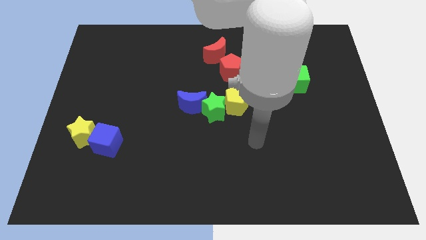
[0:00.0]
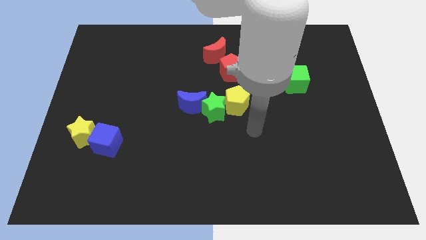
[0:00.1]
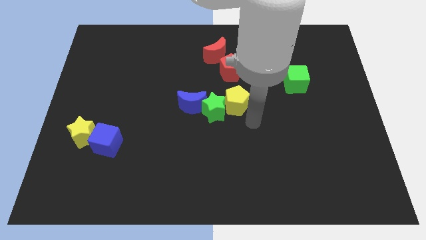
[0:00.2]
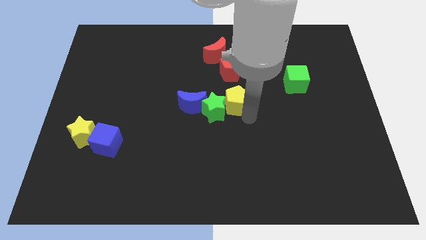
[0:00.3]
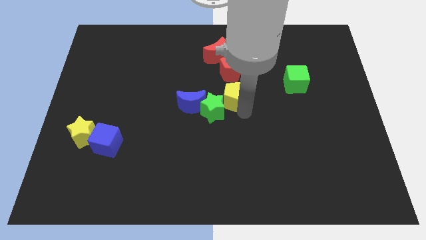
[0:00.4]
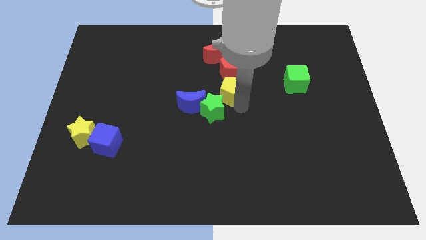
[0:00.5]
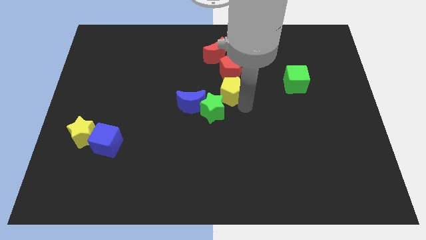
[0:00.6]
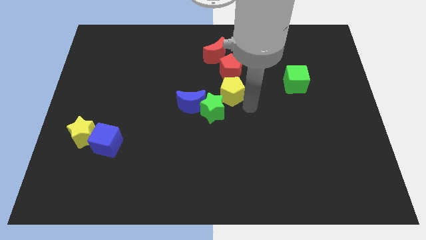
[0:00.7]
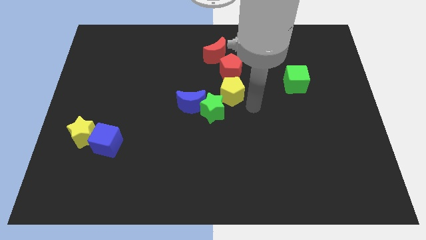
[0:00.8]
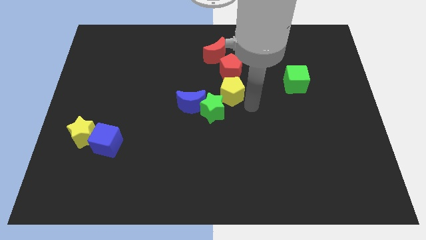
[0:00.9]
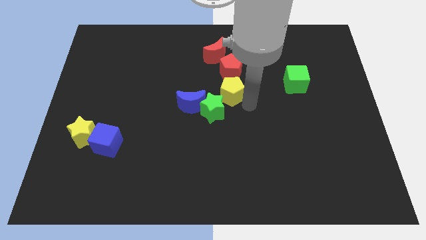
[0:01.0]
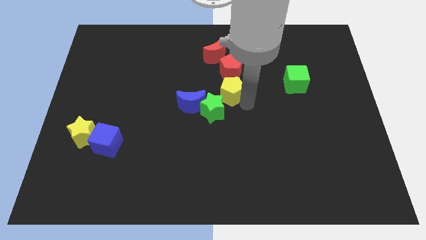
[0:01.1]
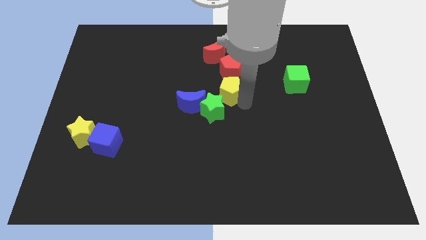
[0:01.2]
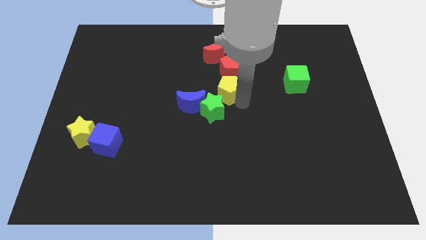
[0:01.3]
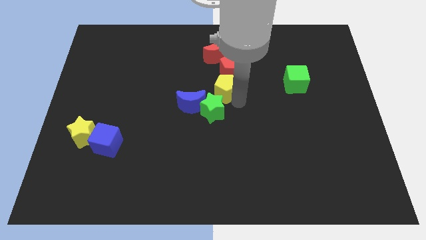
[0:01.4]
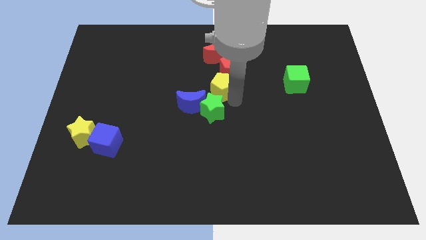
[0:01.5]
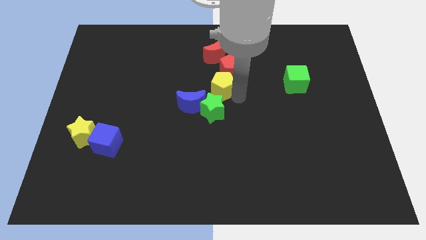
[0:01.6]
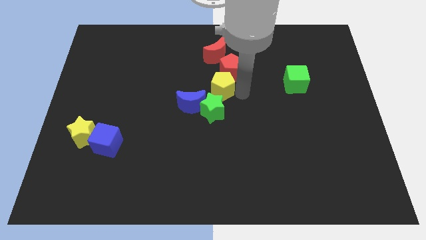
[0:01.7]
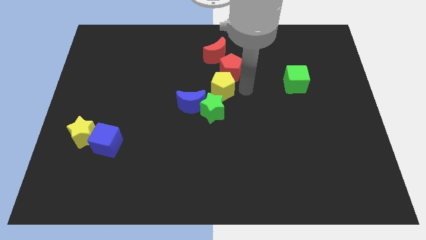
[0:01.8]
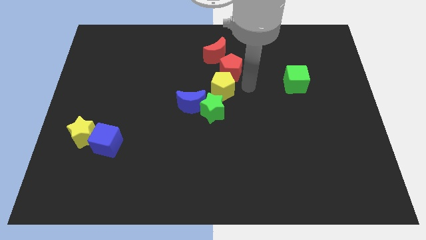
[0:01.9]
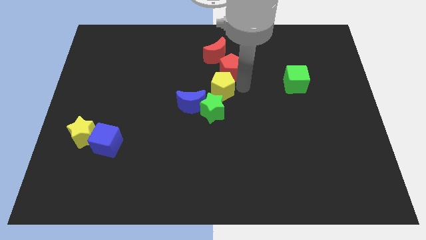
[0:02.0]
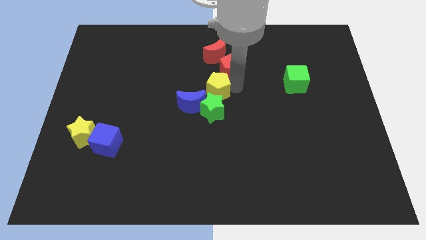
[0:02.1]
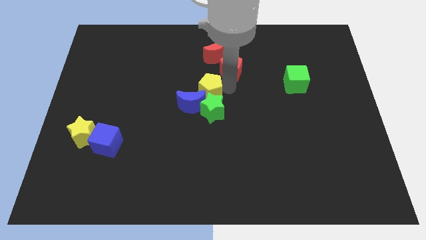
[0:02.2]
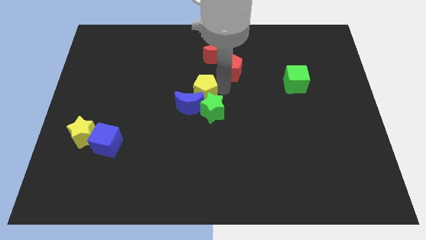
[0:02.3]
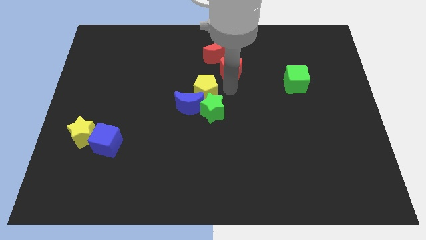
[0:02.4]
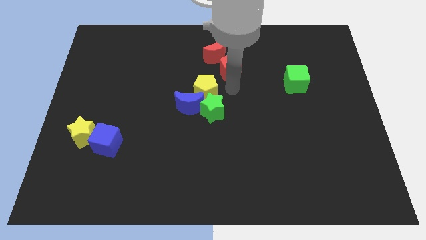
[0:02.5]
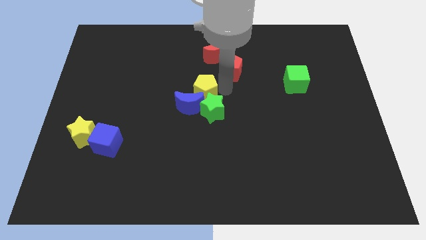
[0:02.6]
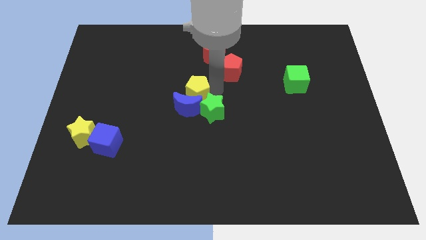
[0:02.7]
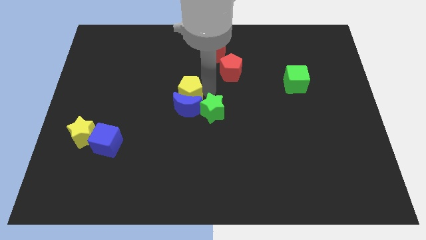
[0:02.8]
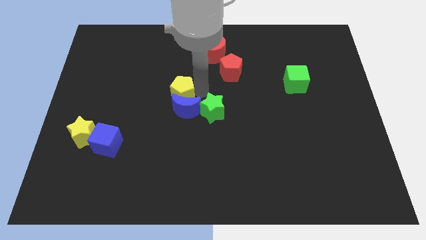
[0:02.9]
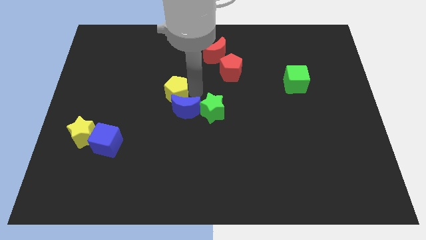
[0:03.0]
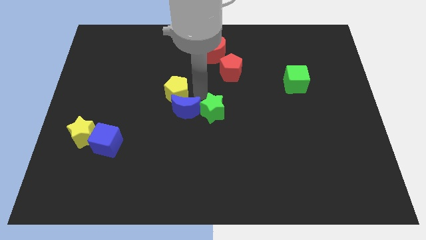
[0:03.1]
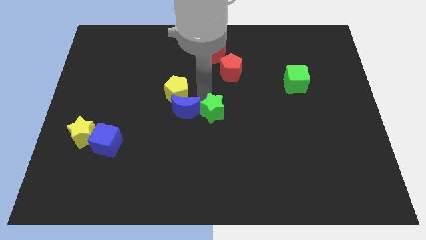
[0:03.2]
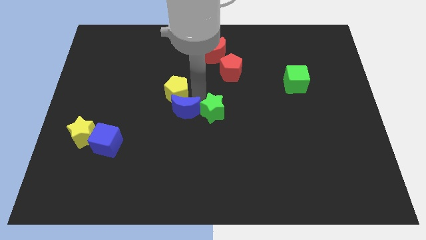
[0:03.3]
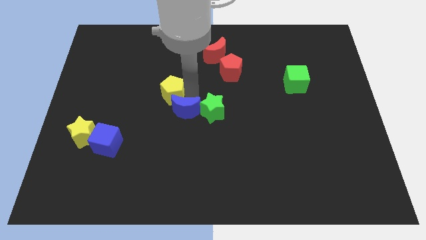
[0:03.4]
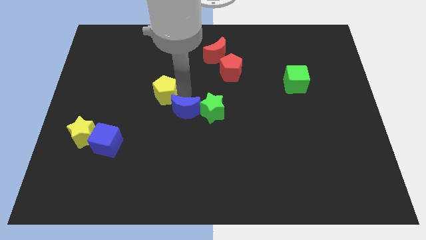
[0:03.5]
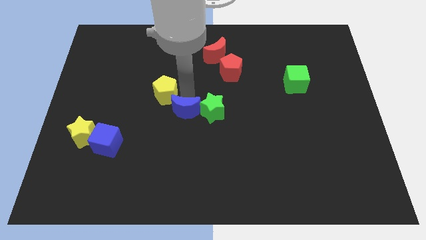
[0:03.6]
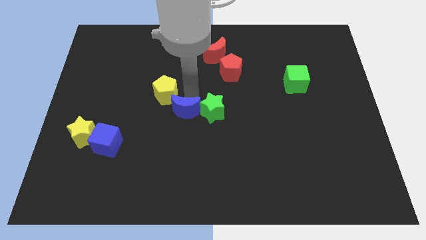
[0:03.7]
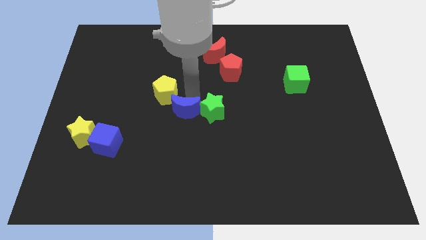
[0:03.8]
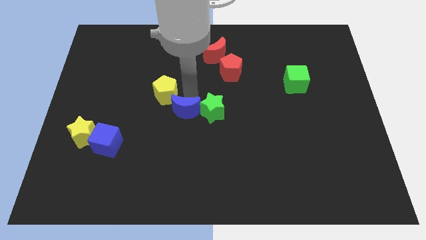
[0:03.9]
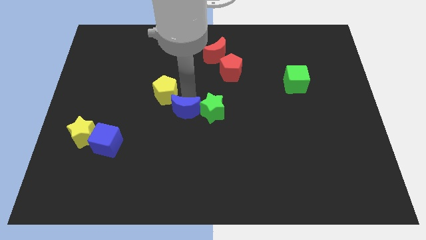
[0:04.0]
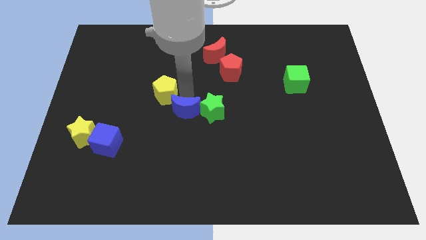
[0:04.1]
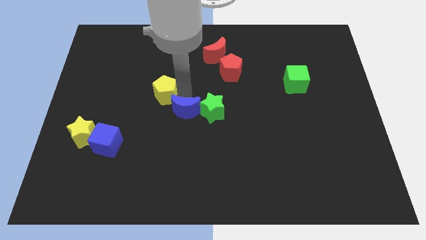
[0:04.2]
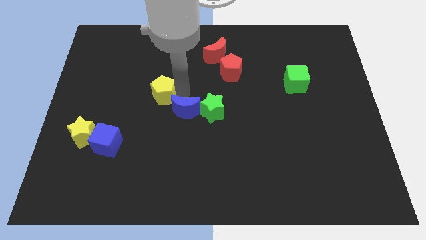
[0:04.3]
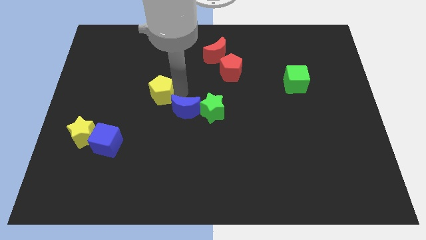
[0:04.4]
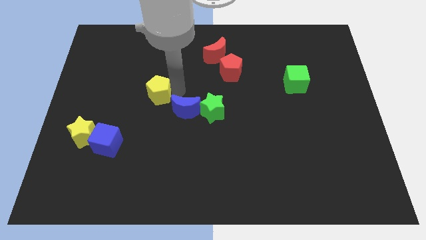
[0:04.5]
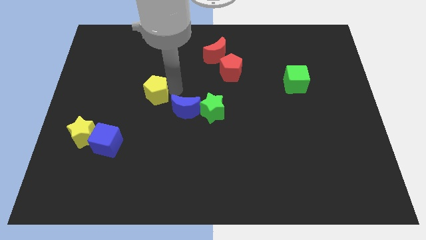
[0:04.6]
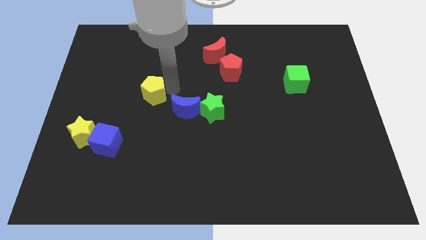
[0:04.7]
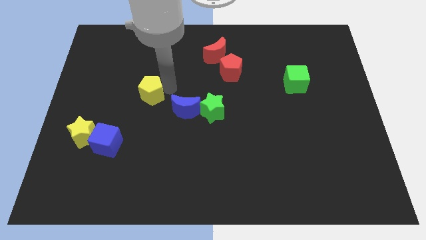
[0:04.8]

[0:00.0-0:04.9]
move the yellow pentagon to the left

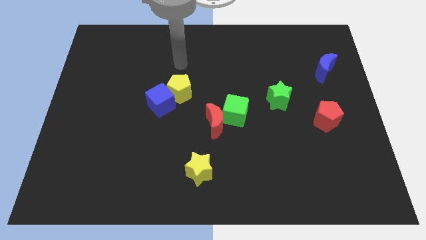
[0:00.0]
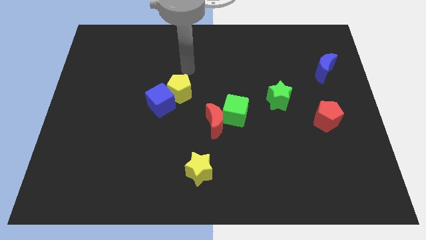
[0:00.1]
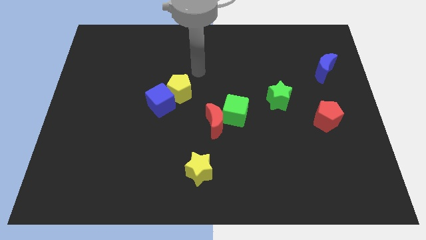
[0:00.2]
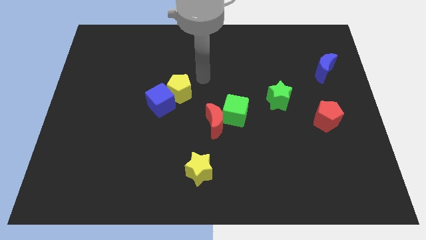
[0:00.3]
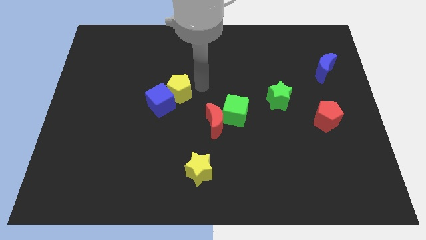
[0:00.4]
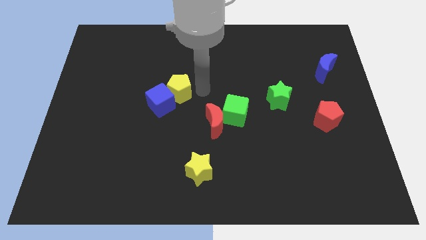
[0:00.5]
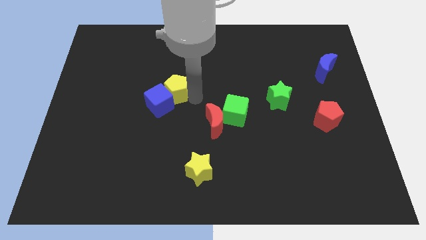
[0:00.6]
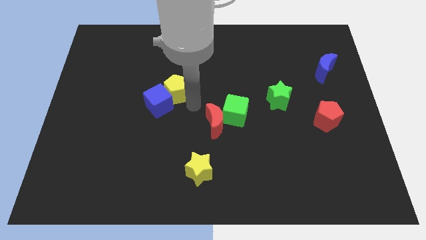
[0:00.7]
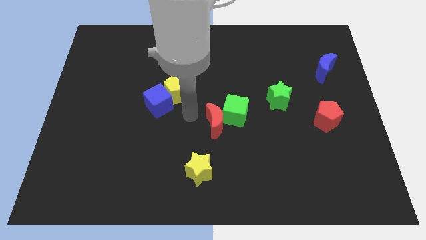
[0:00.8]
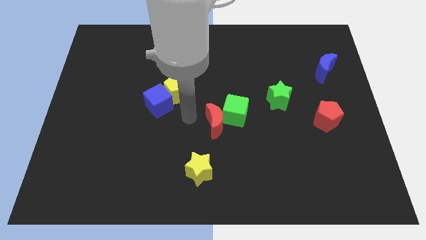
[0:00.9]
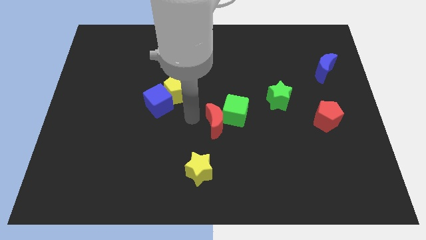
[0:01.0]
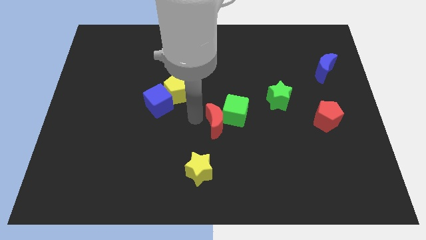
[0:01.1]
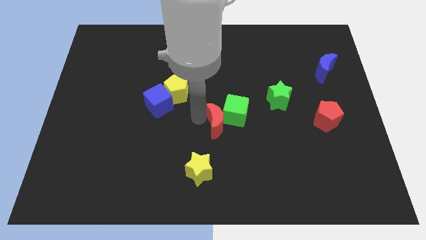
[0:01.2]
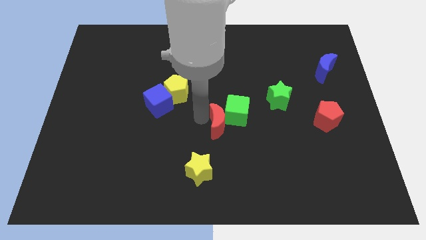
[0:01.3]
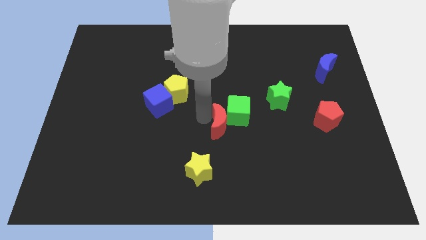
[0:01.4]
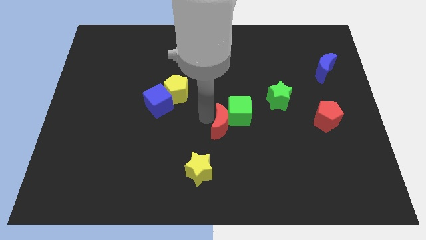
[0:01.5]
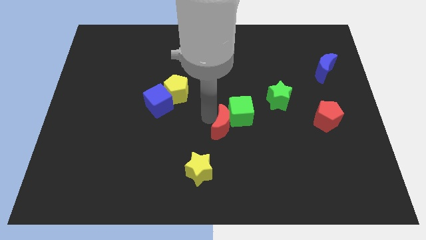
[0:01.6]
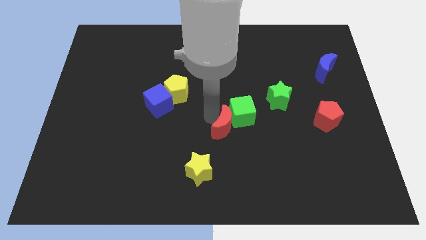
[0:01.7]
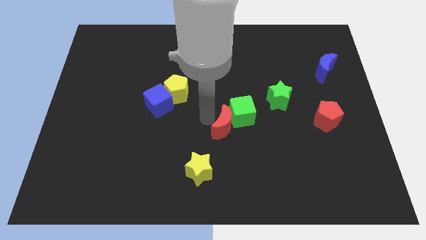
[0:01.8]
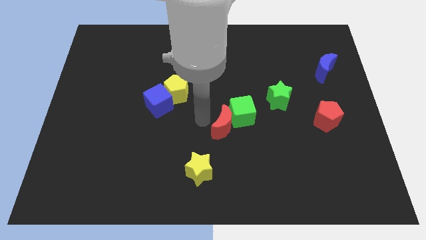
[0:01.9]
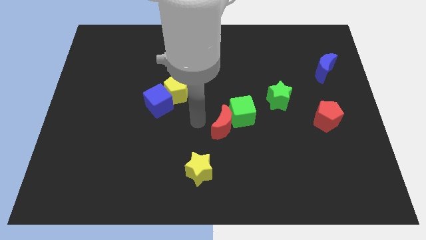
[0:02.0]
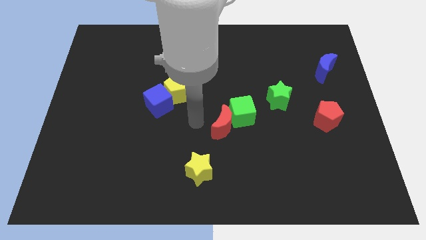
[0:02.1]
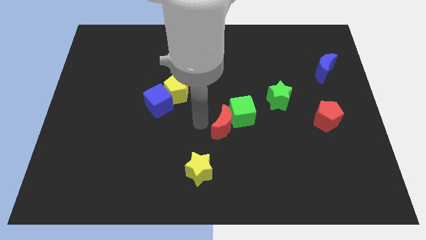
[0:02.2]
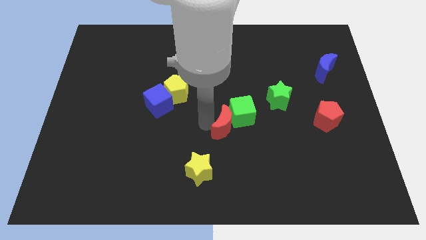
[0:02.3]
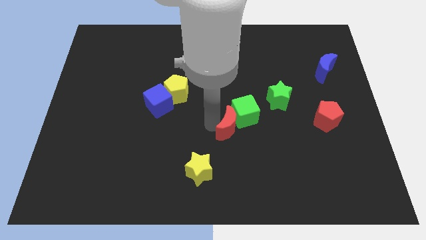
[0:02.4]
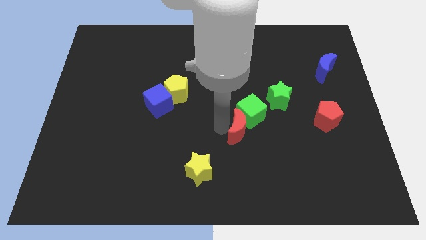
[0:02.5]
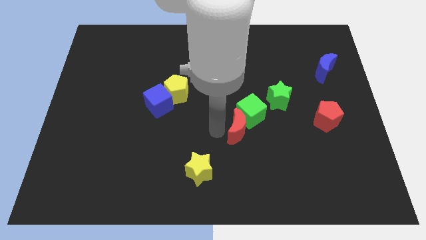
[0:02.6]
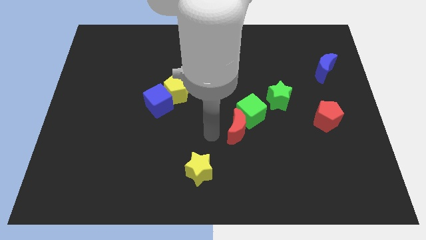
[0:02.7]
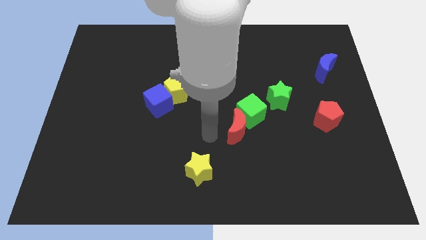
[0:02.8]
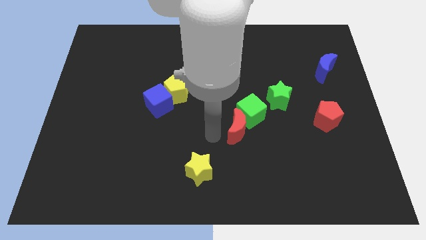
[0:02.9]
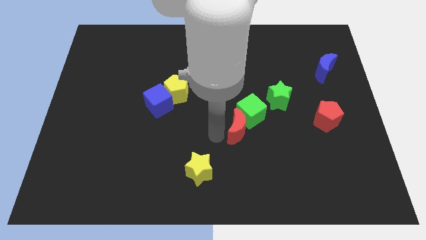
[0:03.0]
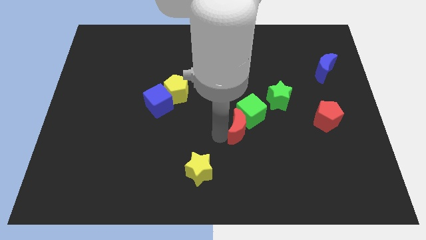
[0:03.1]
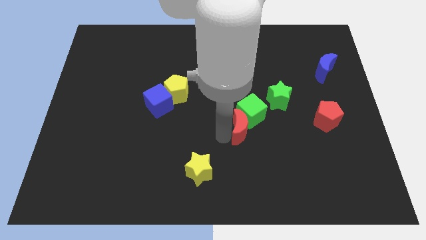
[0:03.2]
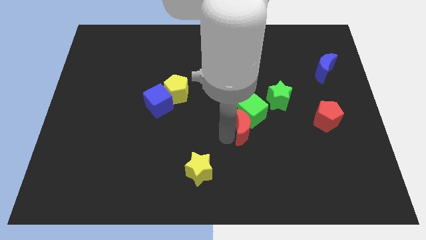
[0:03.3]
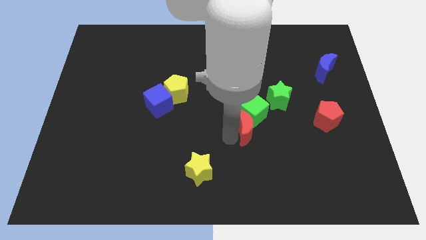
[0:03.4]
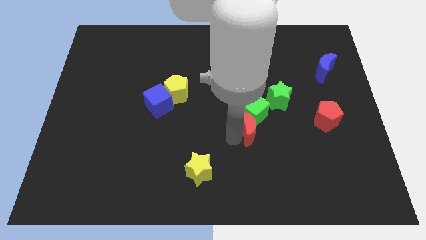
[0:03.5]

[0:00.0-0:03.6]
slide the red moon right a little bit
